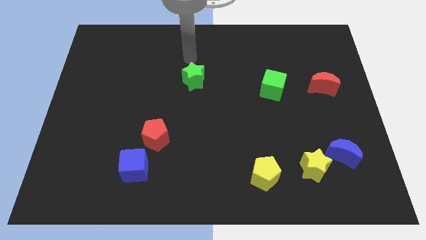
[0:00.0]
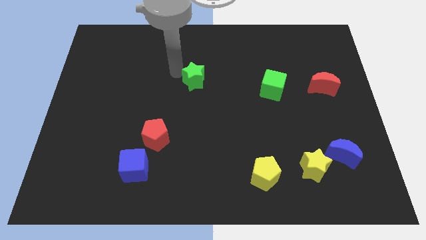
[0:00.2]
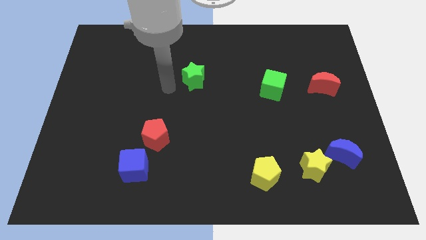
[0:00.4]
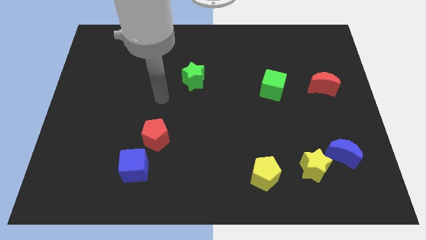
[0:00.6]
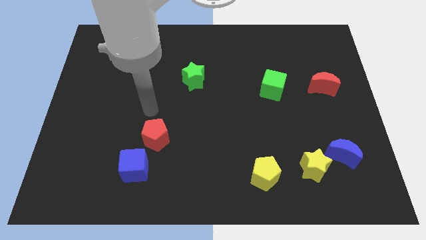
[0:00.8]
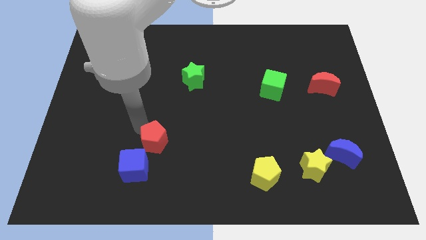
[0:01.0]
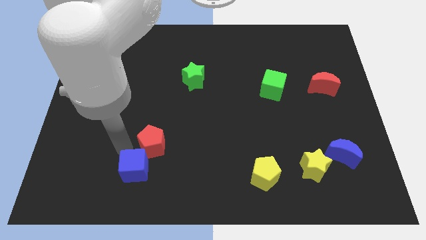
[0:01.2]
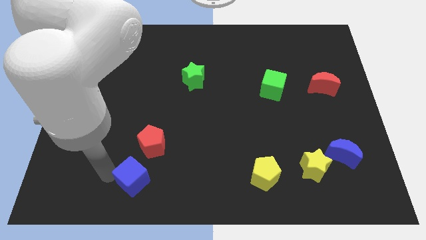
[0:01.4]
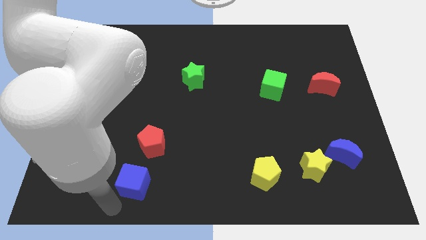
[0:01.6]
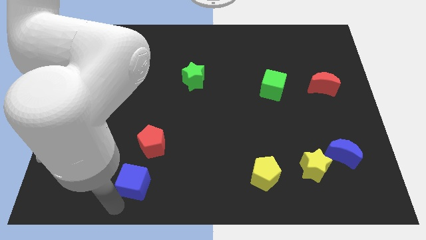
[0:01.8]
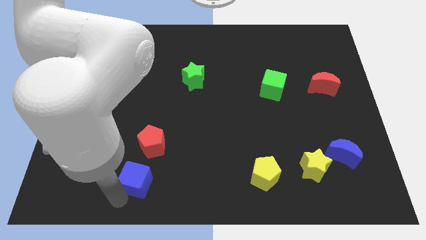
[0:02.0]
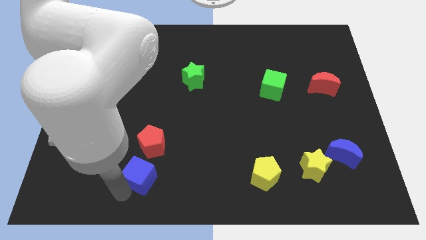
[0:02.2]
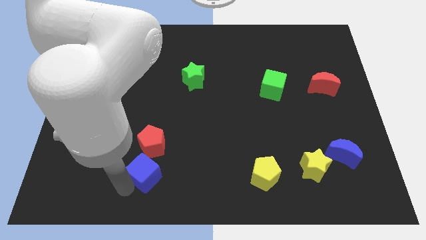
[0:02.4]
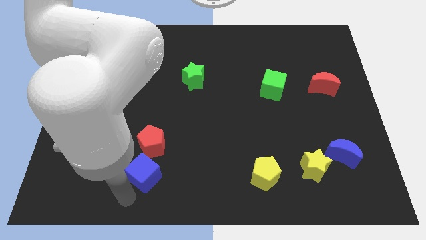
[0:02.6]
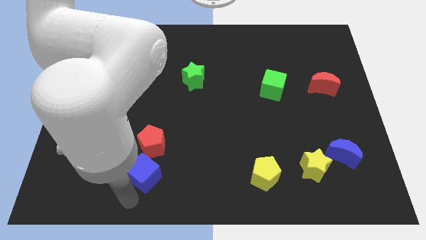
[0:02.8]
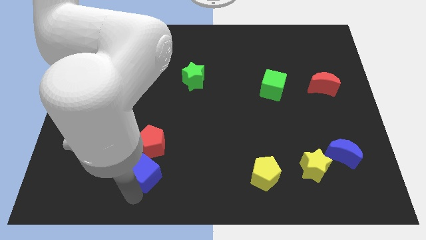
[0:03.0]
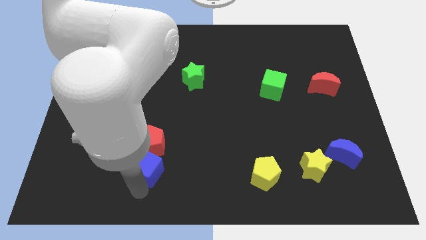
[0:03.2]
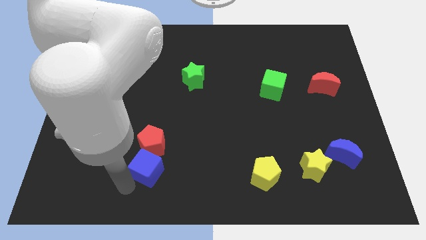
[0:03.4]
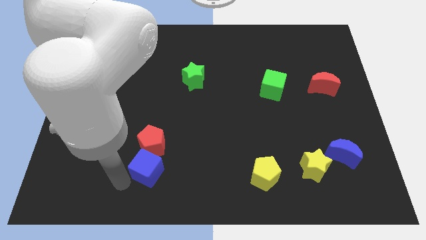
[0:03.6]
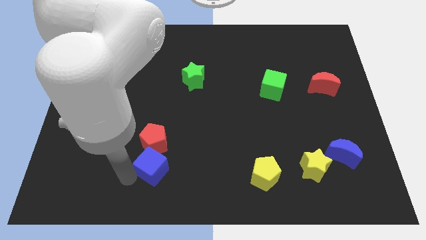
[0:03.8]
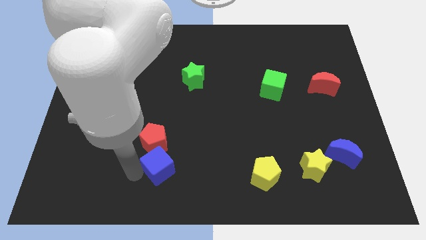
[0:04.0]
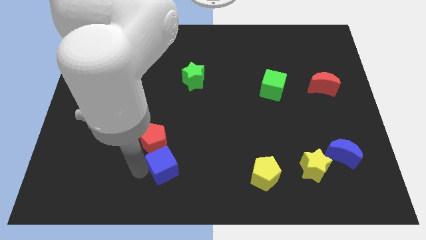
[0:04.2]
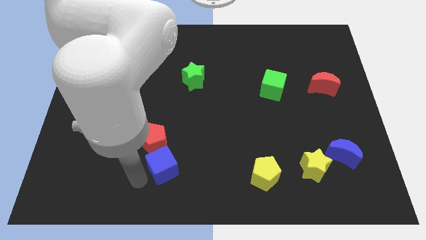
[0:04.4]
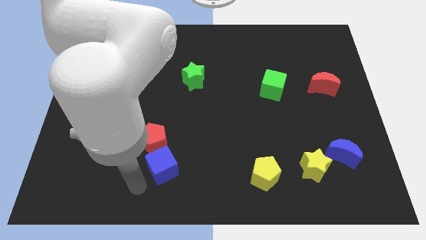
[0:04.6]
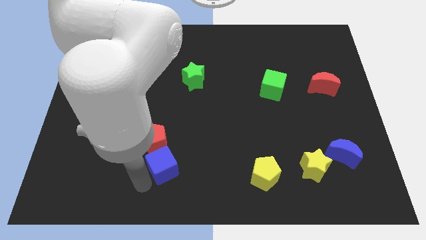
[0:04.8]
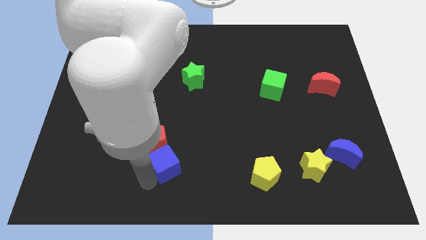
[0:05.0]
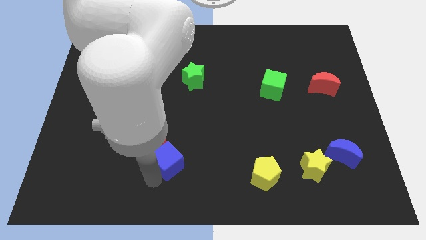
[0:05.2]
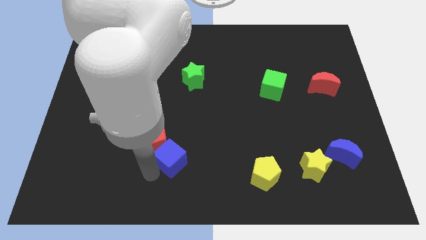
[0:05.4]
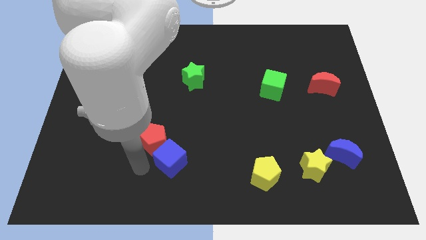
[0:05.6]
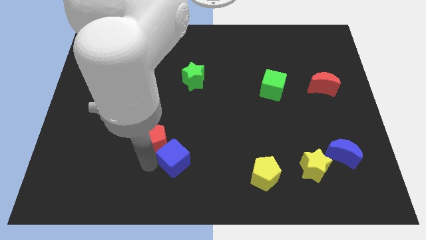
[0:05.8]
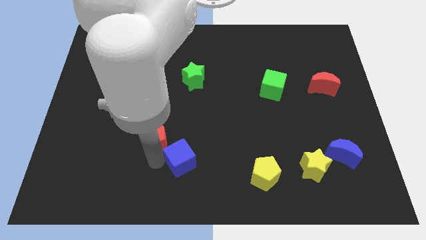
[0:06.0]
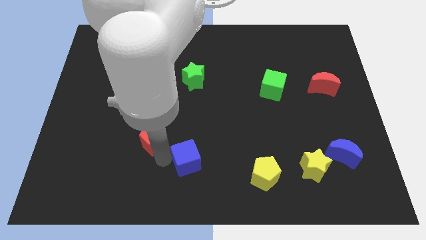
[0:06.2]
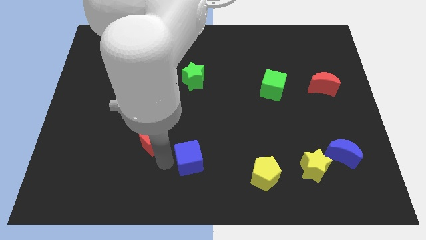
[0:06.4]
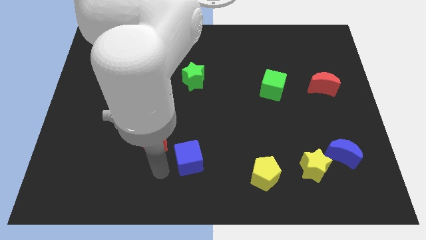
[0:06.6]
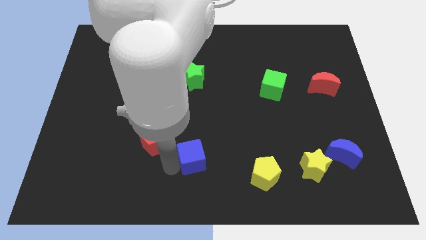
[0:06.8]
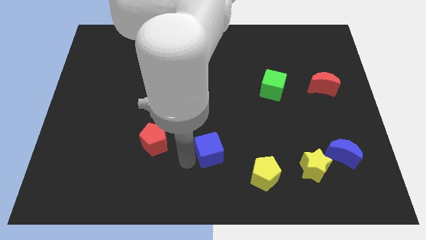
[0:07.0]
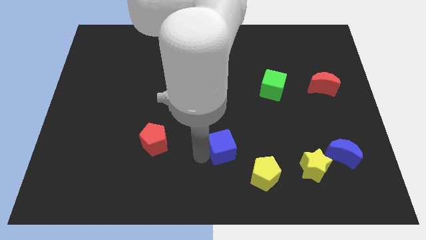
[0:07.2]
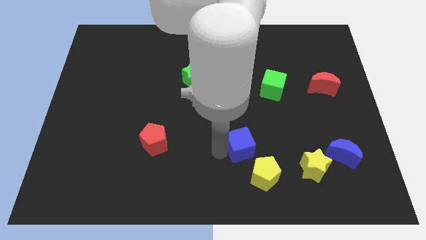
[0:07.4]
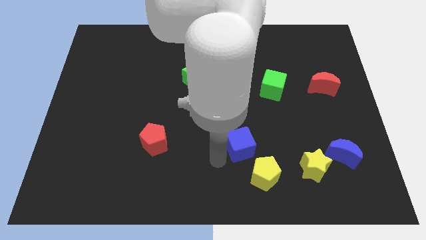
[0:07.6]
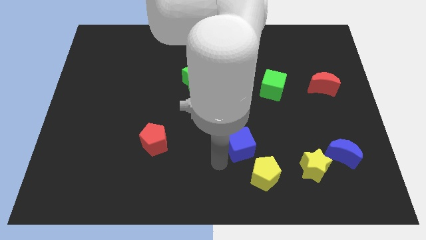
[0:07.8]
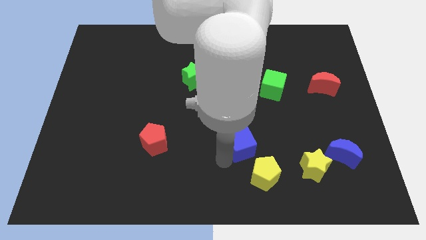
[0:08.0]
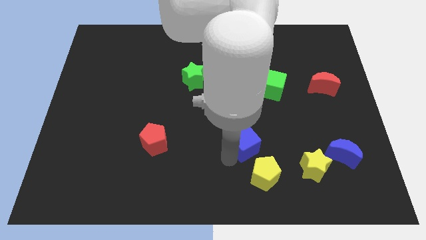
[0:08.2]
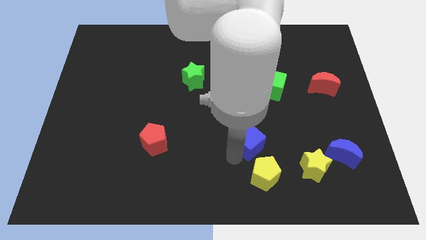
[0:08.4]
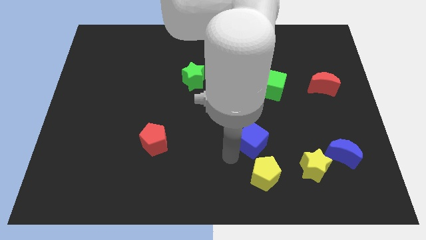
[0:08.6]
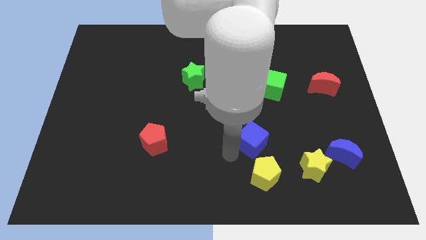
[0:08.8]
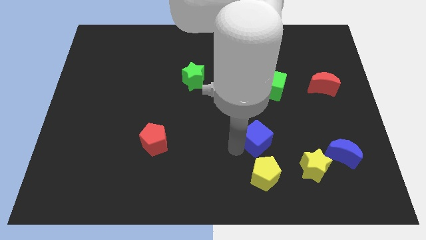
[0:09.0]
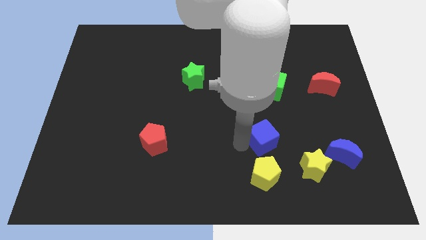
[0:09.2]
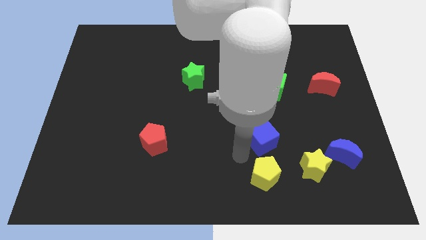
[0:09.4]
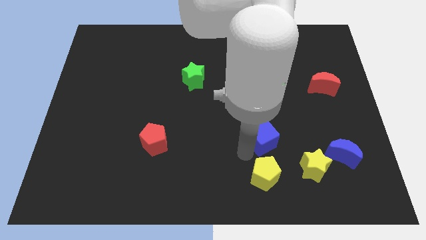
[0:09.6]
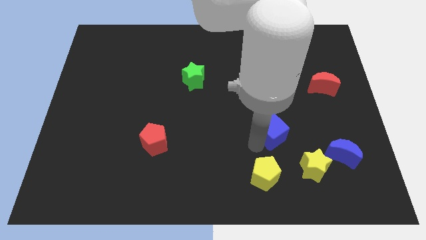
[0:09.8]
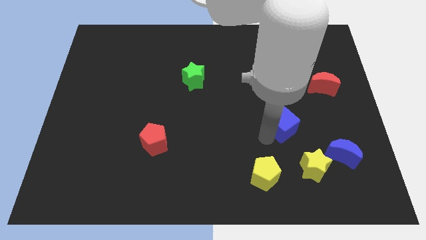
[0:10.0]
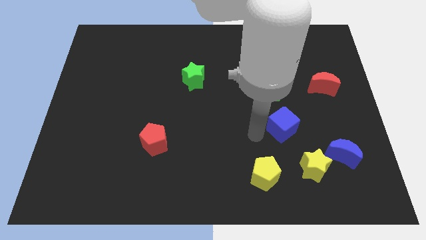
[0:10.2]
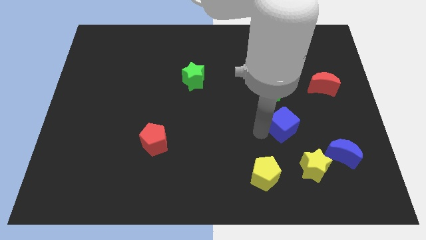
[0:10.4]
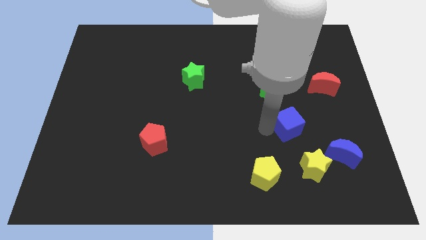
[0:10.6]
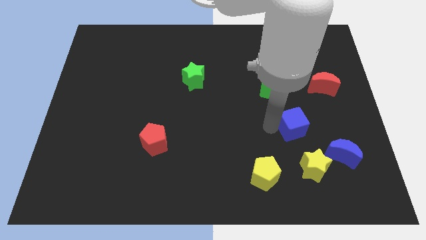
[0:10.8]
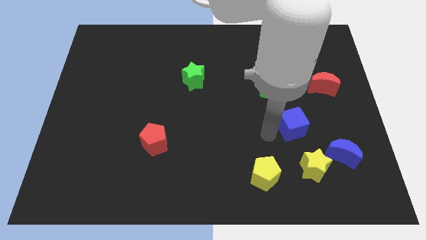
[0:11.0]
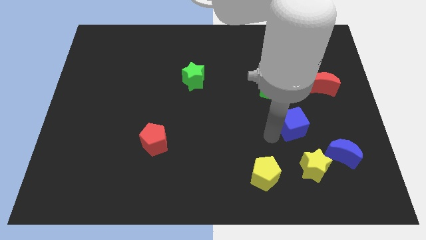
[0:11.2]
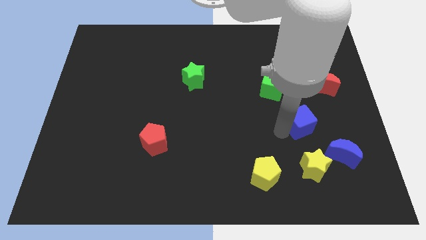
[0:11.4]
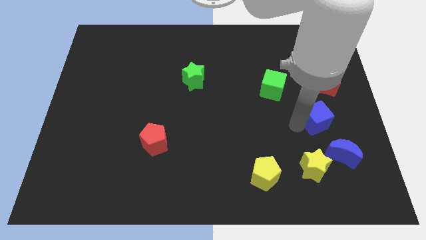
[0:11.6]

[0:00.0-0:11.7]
push the blue cube above the blue moon

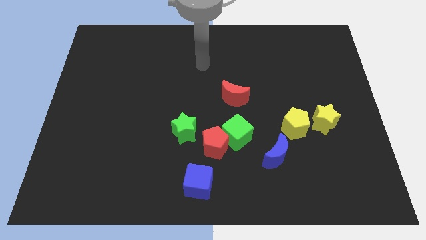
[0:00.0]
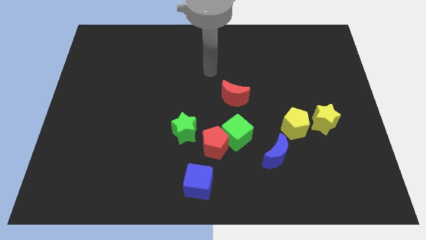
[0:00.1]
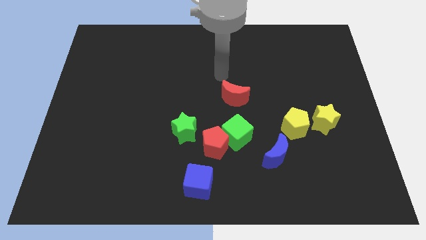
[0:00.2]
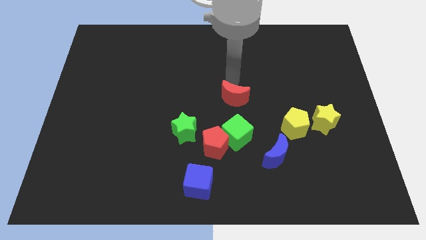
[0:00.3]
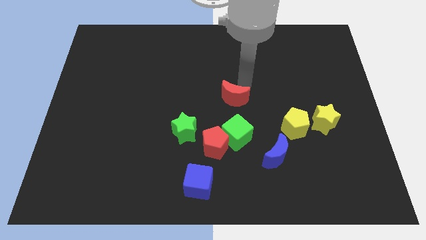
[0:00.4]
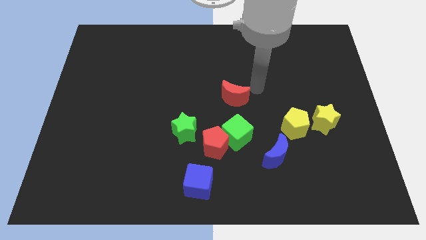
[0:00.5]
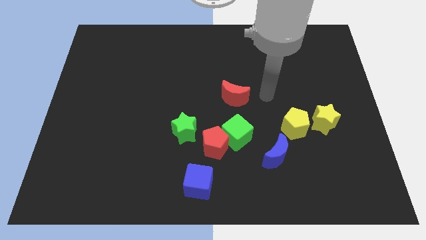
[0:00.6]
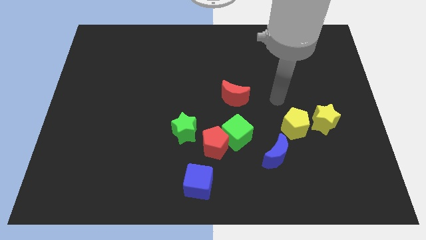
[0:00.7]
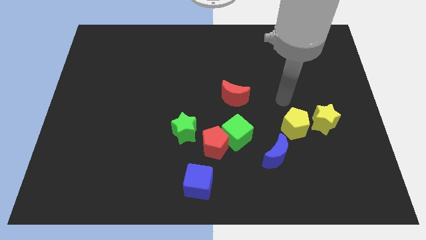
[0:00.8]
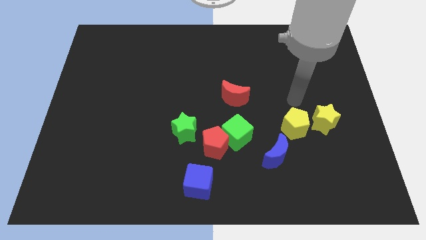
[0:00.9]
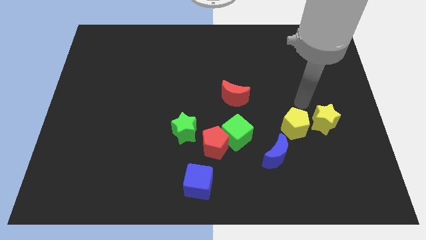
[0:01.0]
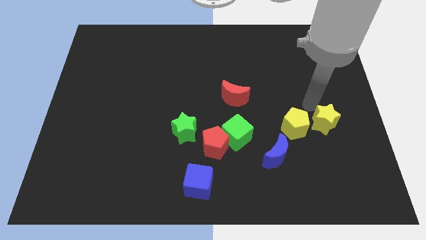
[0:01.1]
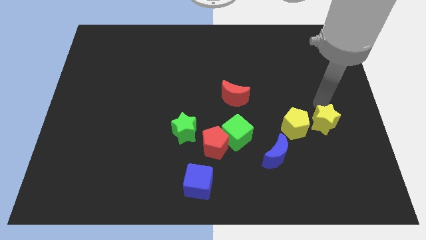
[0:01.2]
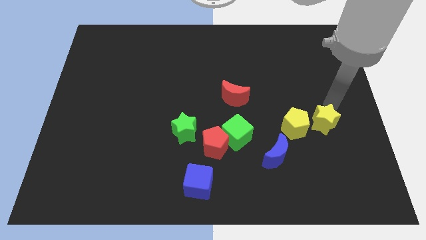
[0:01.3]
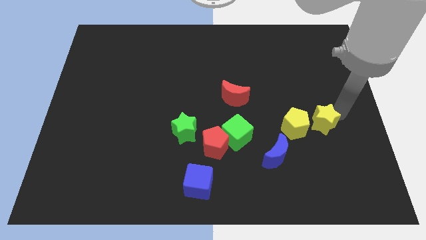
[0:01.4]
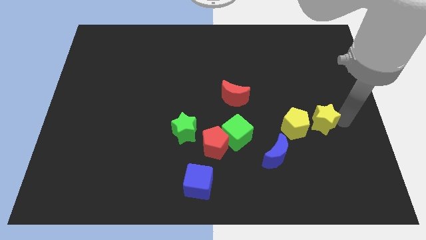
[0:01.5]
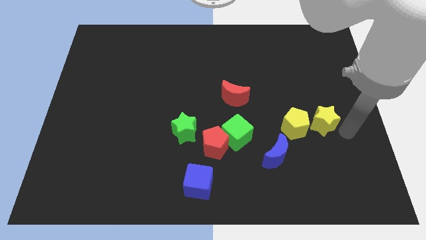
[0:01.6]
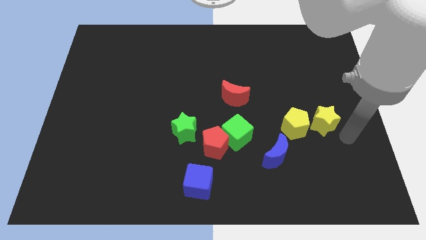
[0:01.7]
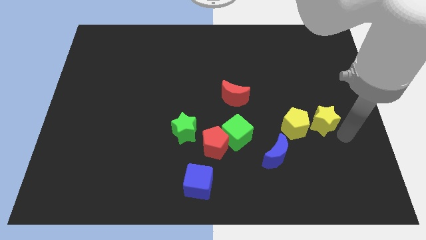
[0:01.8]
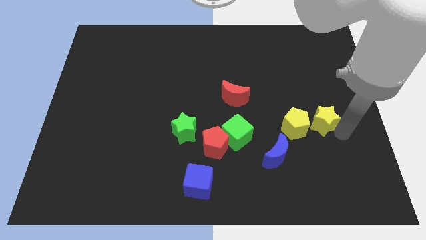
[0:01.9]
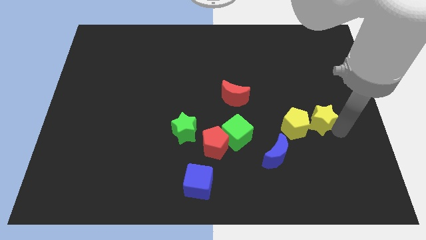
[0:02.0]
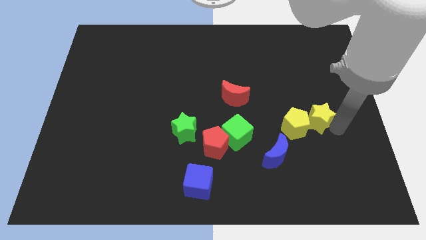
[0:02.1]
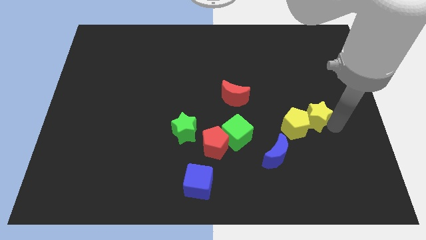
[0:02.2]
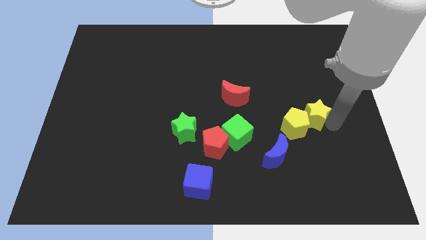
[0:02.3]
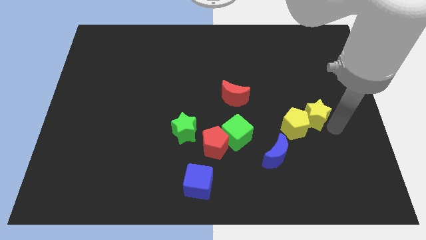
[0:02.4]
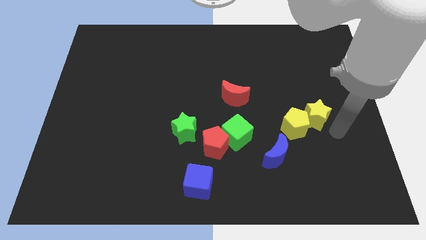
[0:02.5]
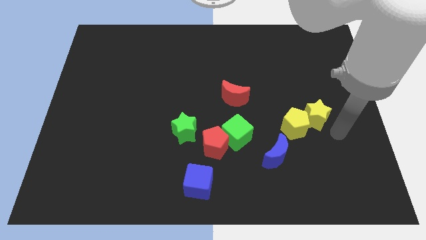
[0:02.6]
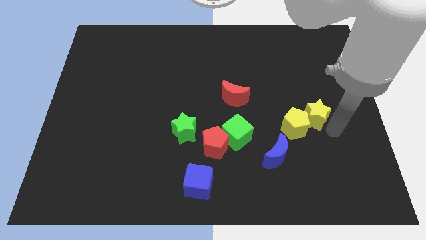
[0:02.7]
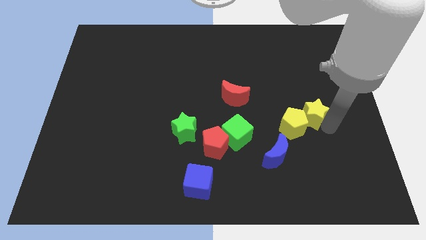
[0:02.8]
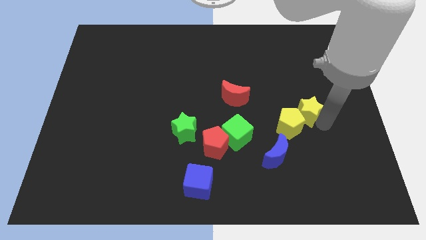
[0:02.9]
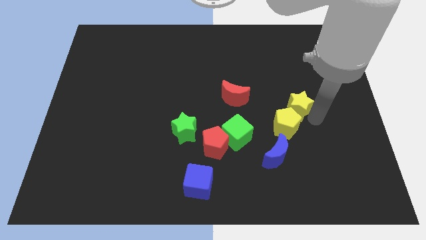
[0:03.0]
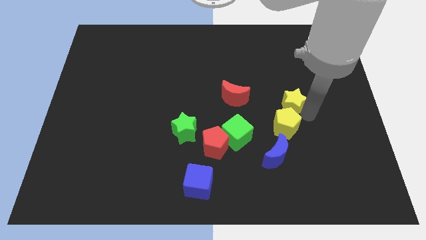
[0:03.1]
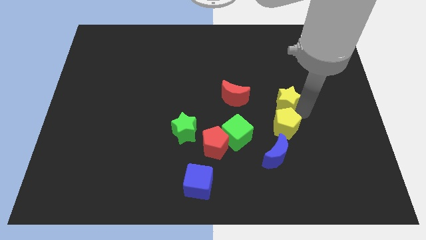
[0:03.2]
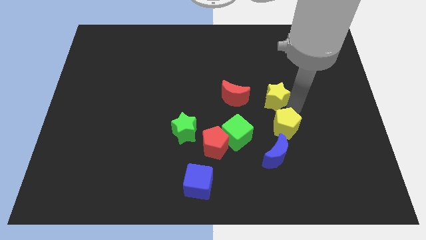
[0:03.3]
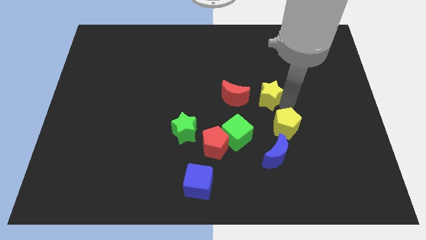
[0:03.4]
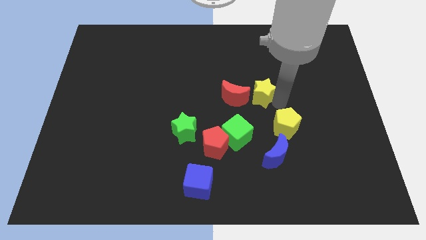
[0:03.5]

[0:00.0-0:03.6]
slide the yellow star to the top right of the red moon
